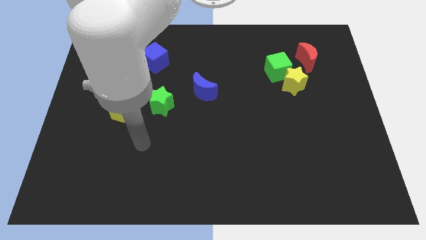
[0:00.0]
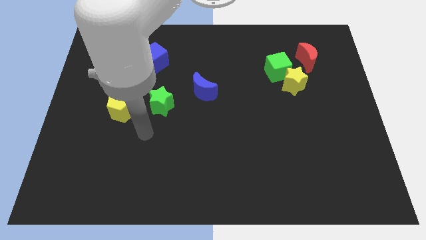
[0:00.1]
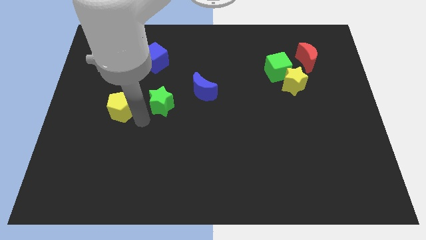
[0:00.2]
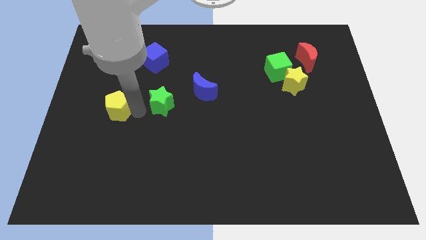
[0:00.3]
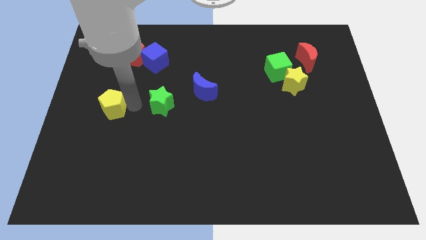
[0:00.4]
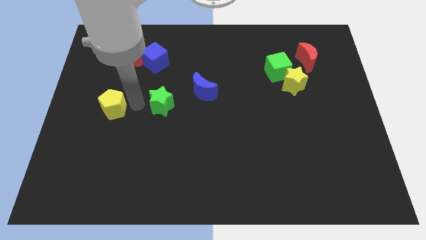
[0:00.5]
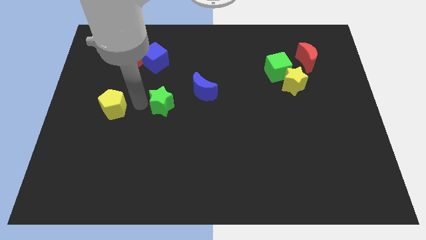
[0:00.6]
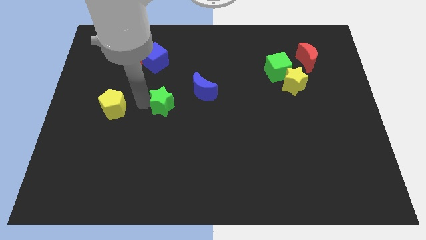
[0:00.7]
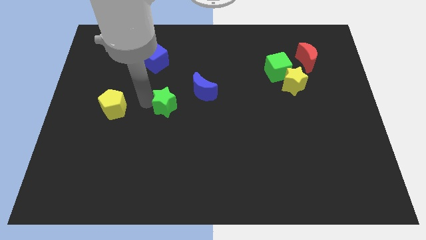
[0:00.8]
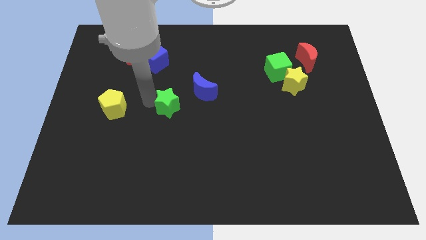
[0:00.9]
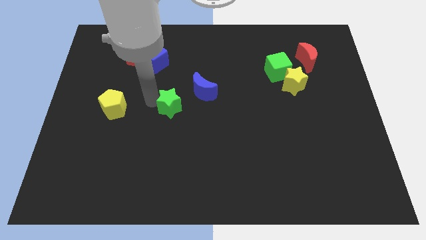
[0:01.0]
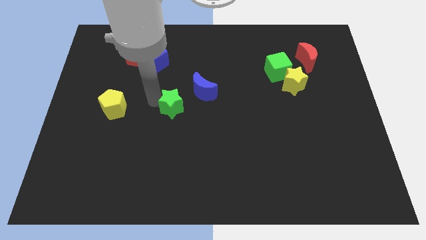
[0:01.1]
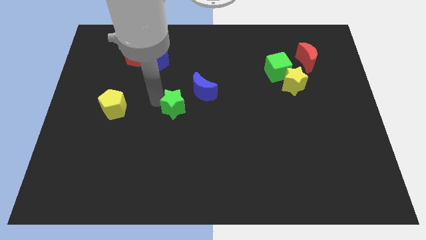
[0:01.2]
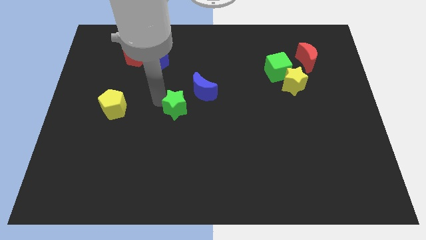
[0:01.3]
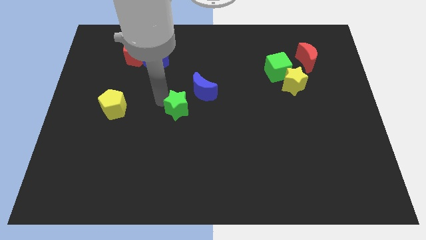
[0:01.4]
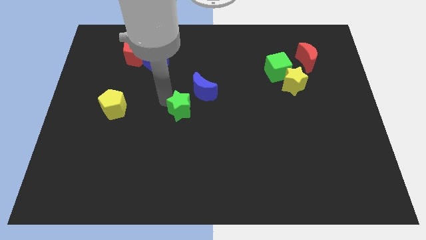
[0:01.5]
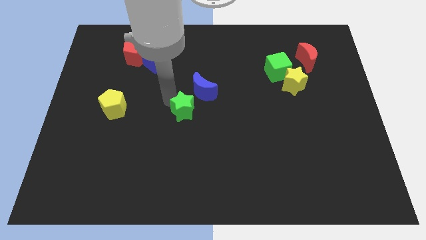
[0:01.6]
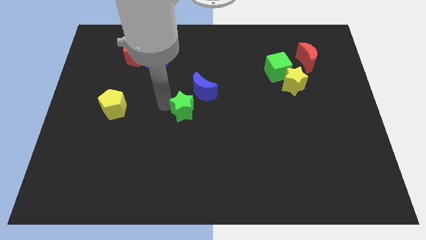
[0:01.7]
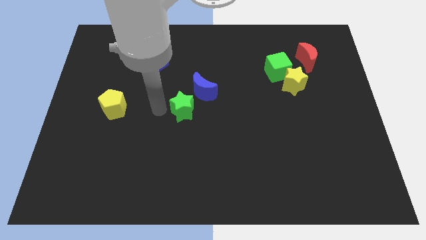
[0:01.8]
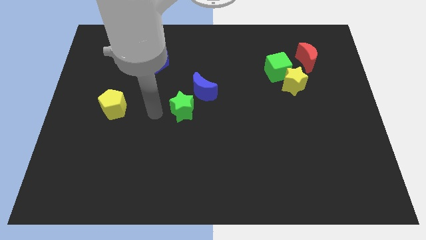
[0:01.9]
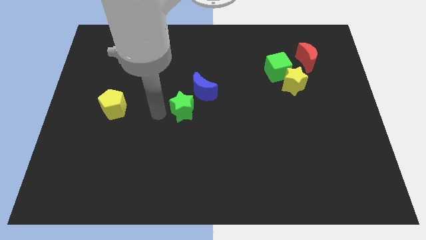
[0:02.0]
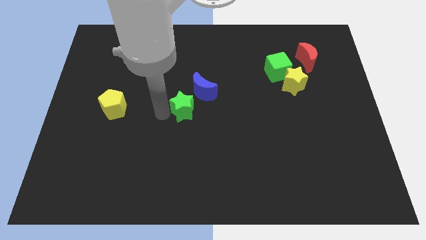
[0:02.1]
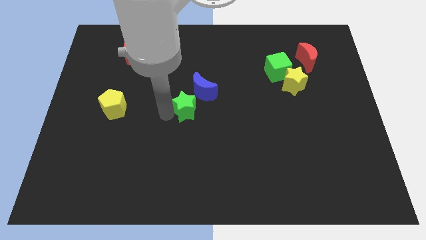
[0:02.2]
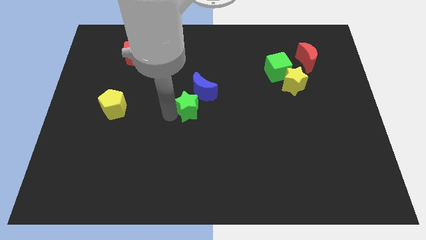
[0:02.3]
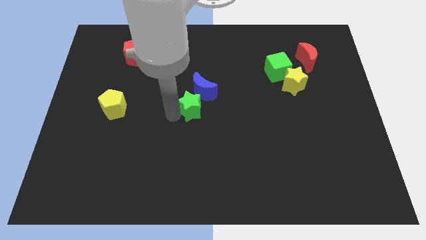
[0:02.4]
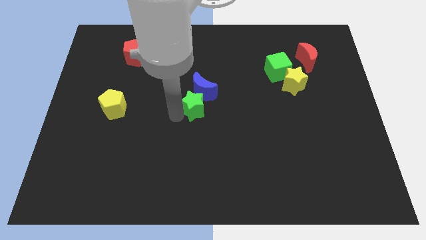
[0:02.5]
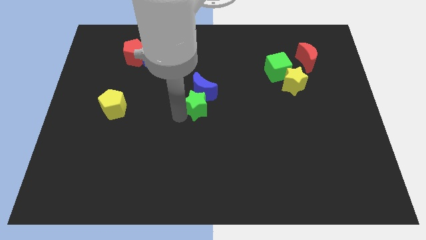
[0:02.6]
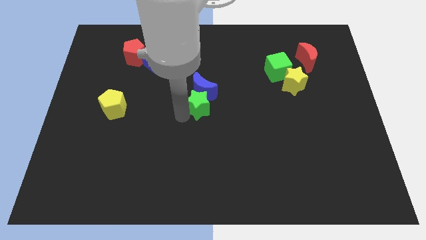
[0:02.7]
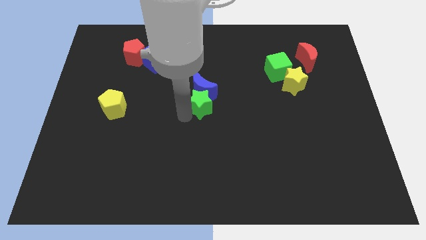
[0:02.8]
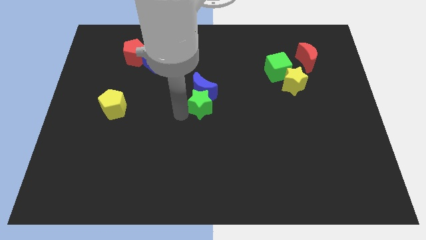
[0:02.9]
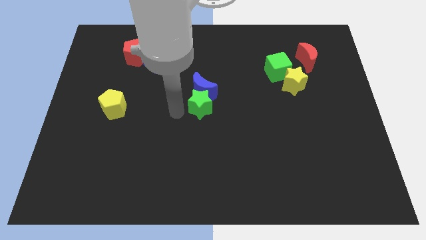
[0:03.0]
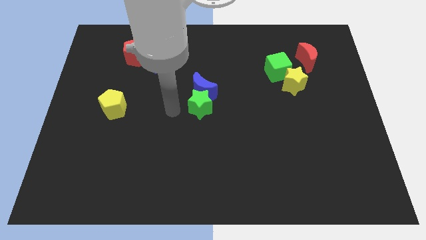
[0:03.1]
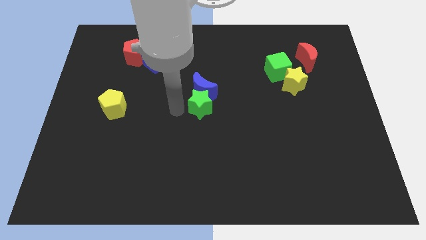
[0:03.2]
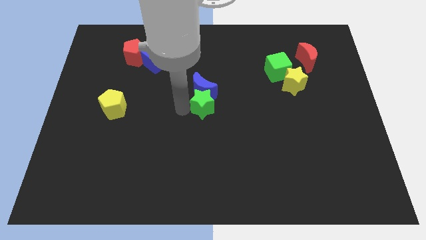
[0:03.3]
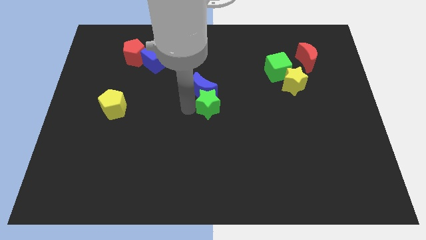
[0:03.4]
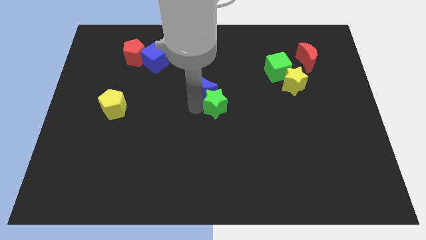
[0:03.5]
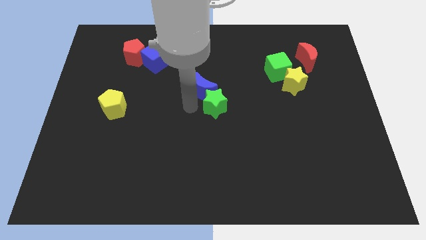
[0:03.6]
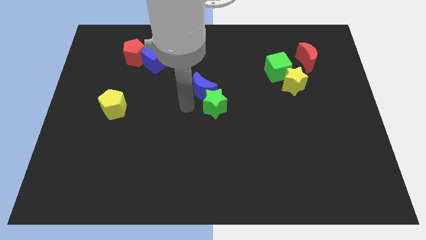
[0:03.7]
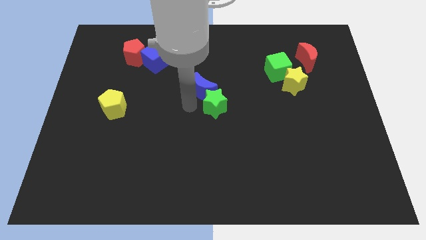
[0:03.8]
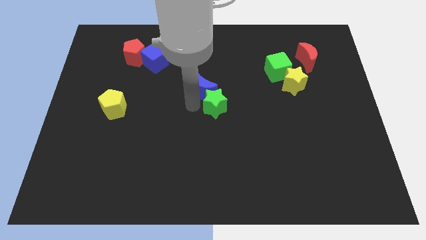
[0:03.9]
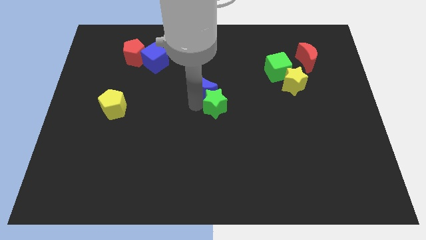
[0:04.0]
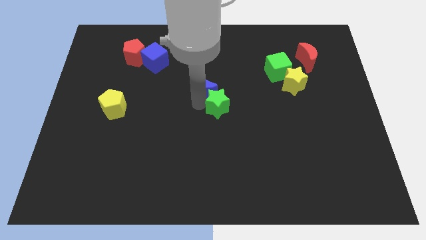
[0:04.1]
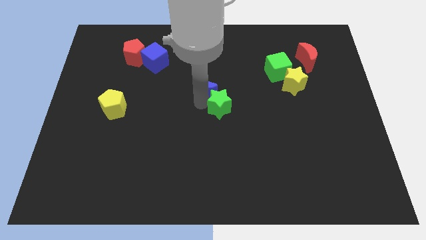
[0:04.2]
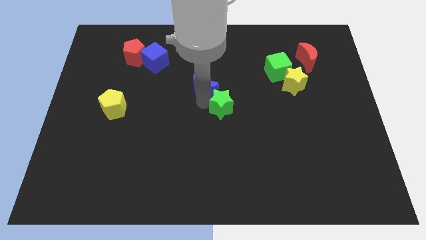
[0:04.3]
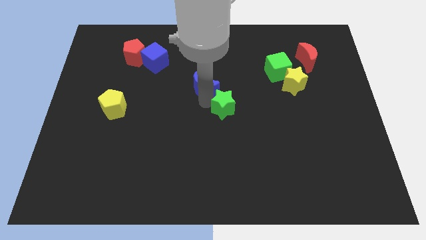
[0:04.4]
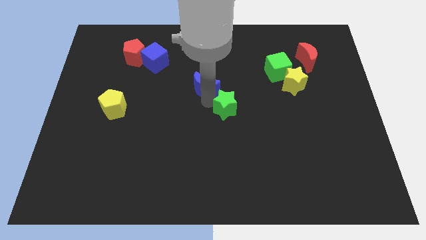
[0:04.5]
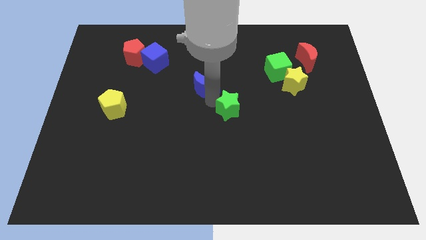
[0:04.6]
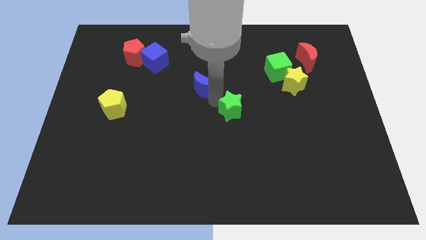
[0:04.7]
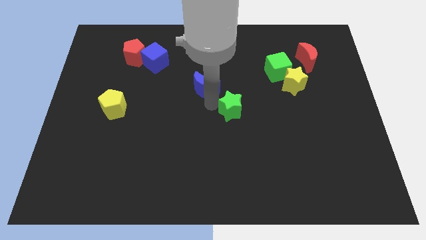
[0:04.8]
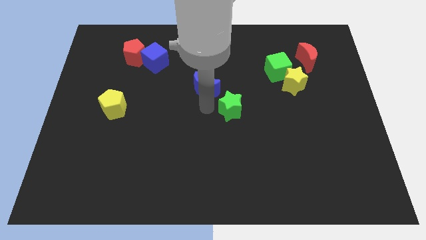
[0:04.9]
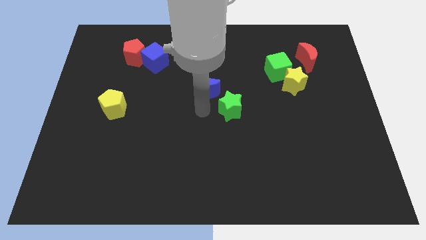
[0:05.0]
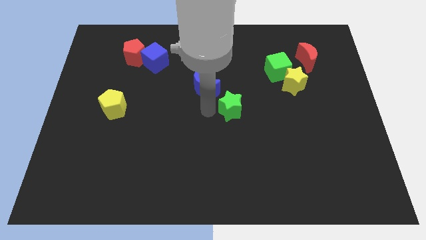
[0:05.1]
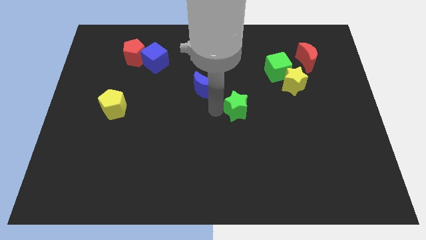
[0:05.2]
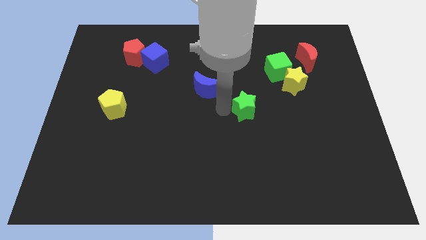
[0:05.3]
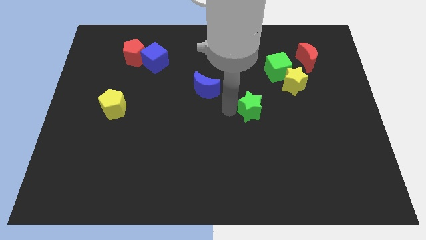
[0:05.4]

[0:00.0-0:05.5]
slide the green star right

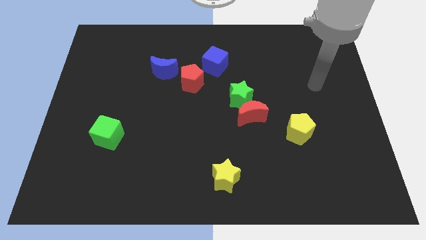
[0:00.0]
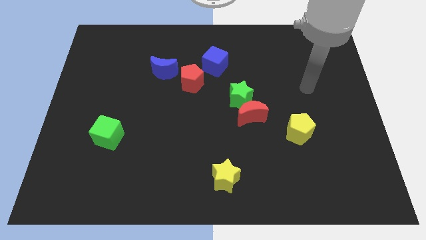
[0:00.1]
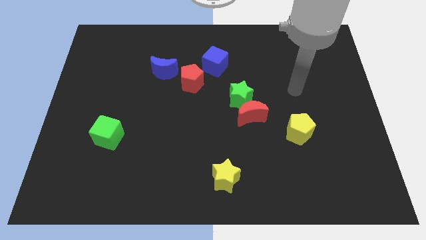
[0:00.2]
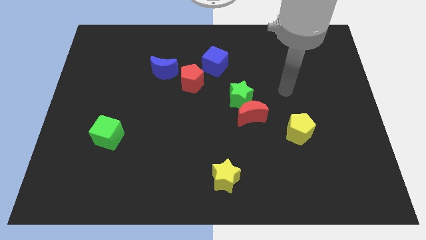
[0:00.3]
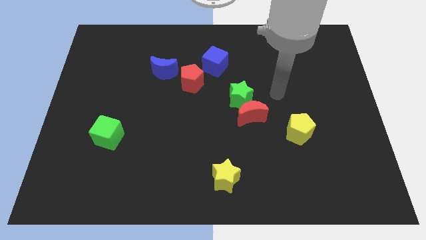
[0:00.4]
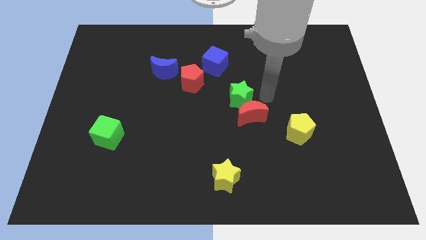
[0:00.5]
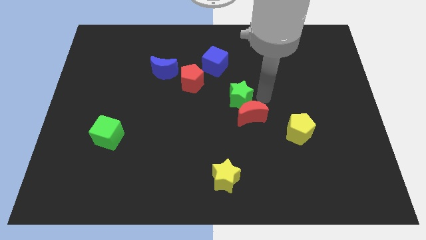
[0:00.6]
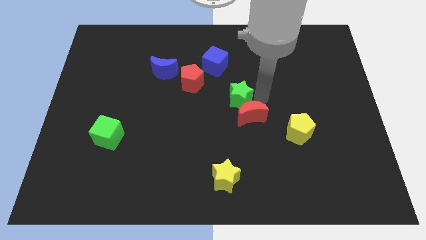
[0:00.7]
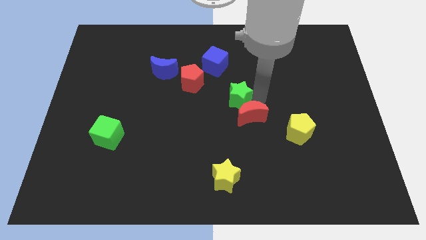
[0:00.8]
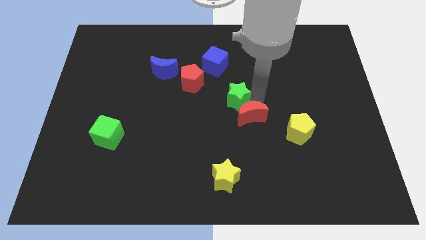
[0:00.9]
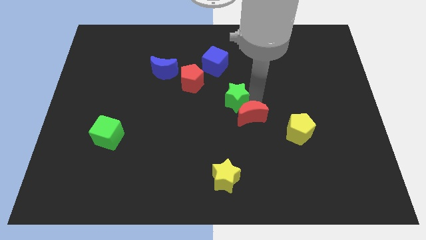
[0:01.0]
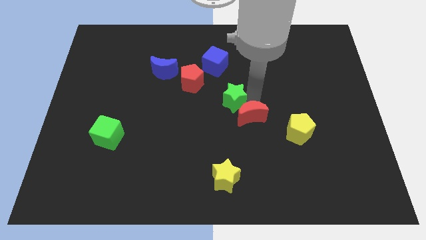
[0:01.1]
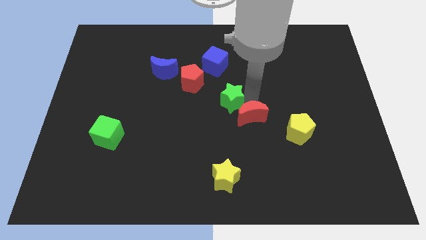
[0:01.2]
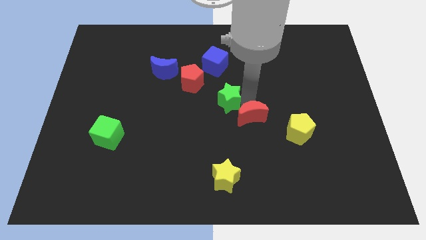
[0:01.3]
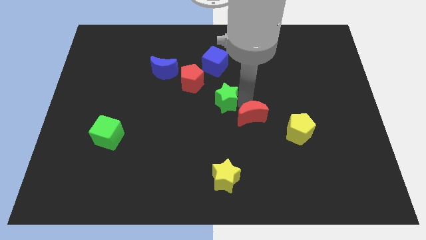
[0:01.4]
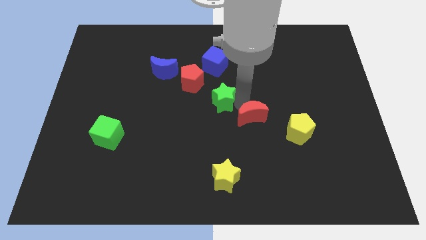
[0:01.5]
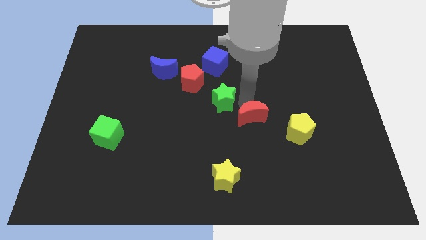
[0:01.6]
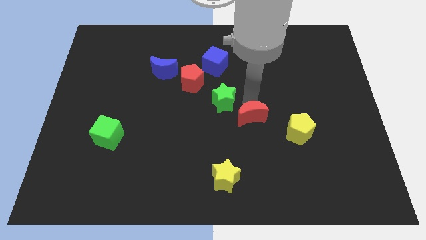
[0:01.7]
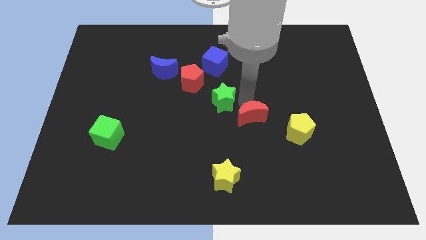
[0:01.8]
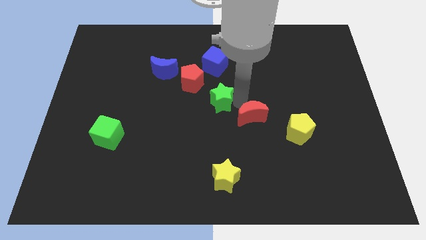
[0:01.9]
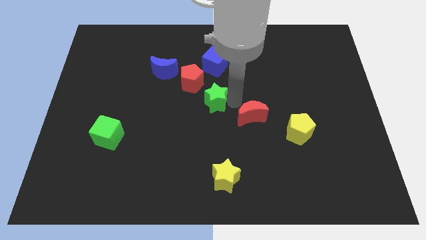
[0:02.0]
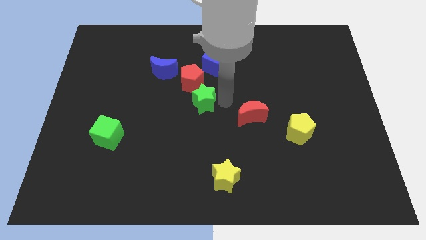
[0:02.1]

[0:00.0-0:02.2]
slide the green star somewhat left

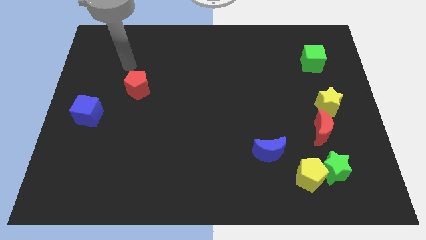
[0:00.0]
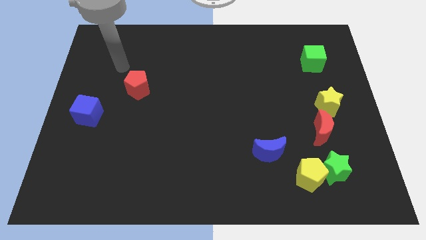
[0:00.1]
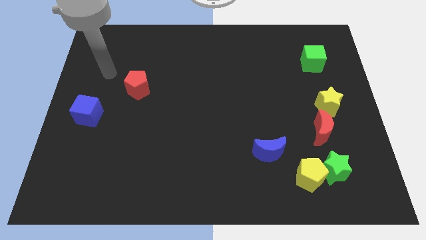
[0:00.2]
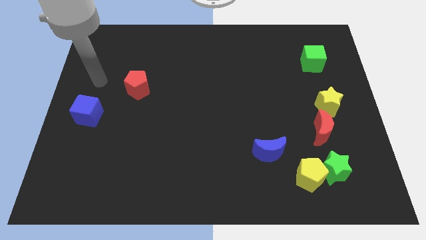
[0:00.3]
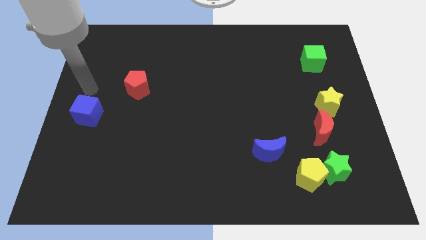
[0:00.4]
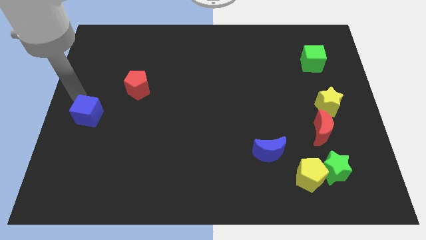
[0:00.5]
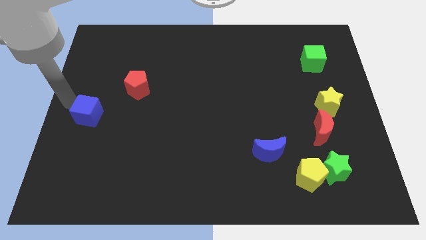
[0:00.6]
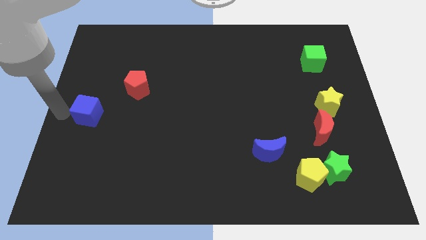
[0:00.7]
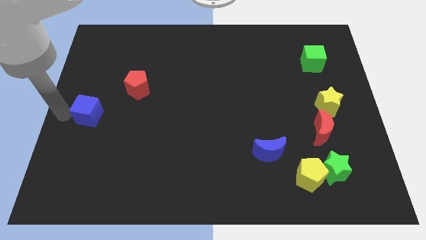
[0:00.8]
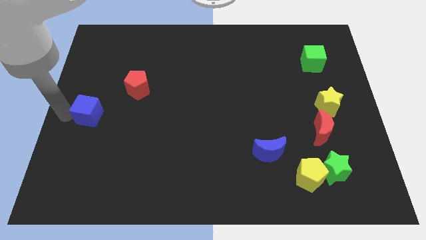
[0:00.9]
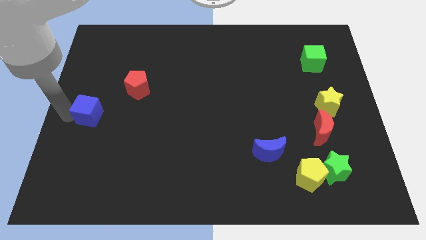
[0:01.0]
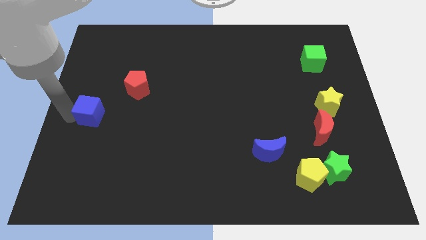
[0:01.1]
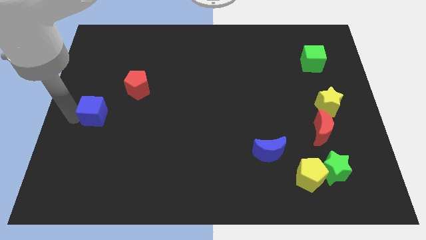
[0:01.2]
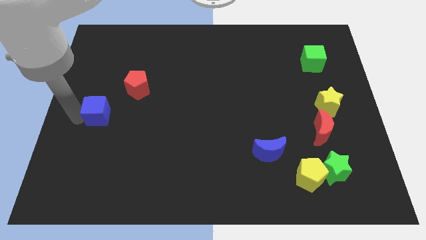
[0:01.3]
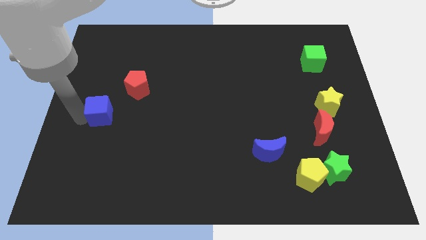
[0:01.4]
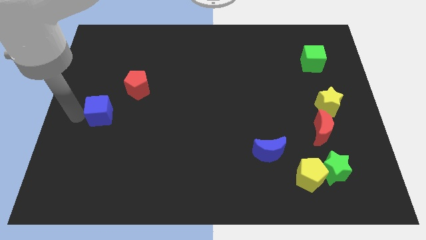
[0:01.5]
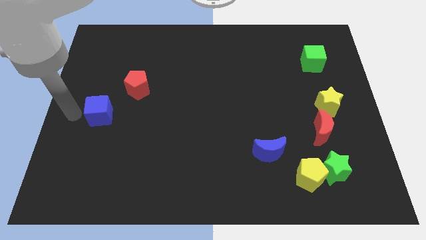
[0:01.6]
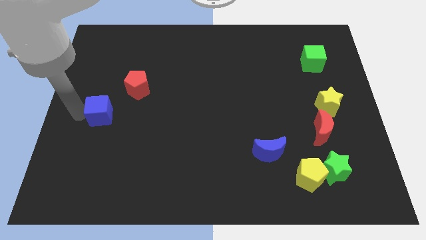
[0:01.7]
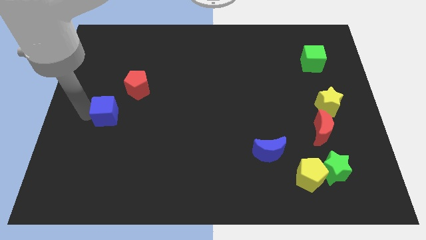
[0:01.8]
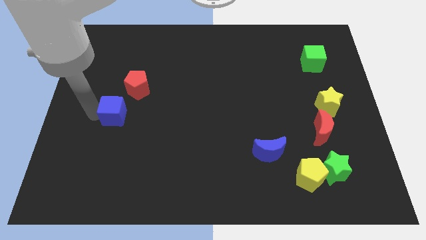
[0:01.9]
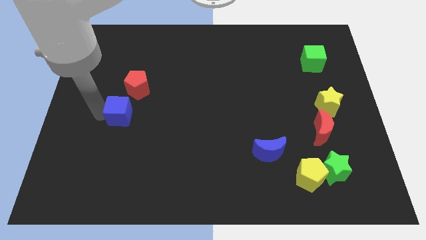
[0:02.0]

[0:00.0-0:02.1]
slightly move the blue cube right
